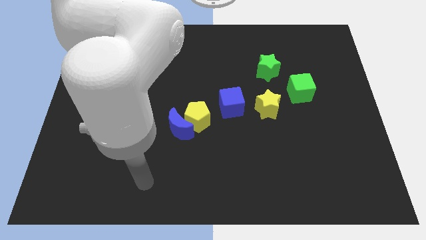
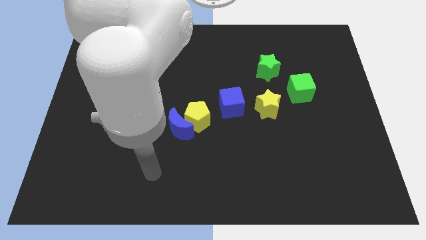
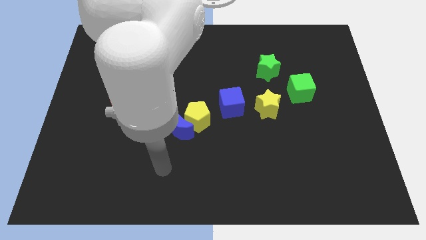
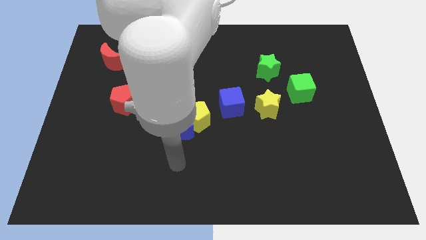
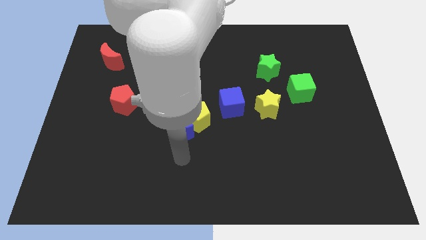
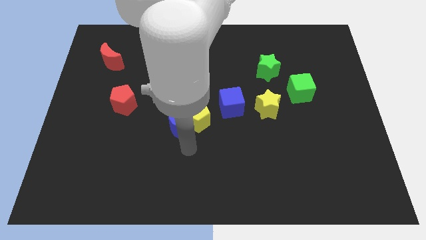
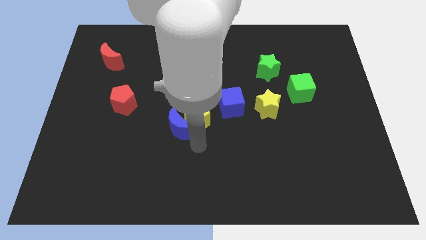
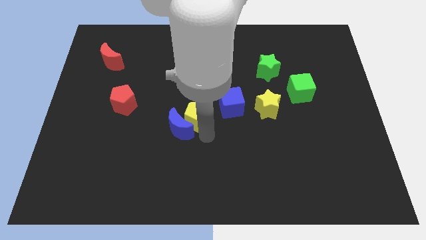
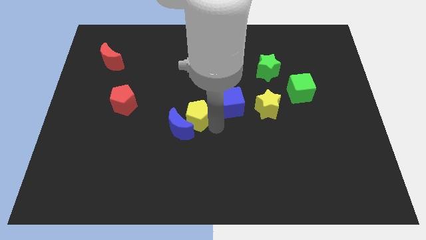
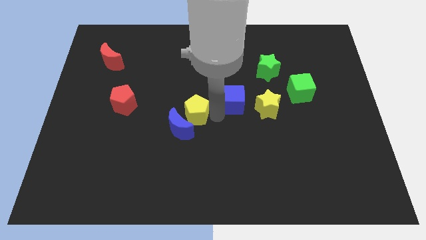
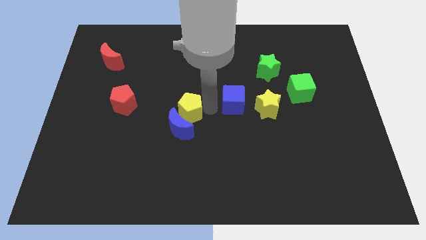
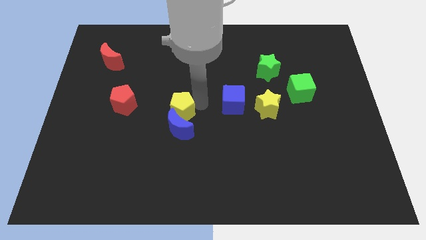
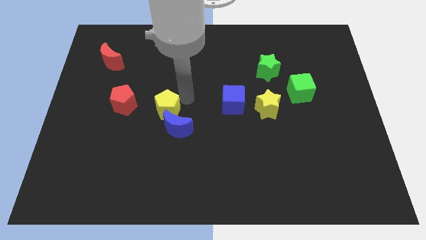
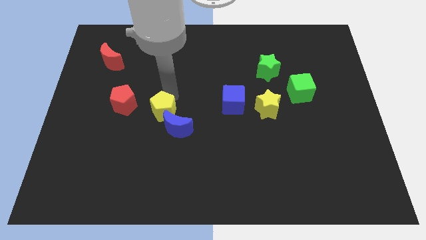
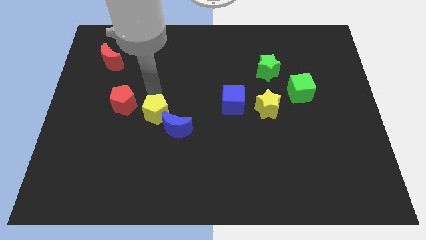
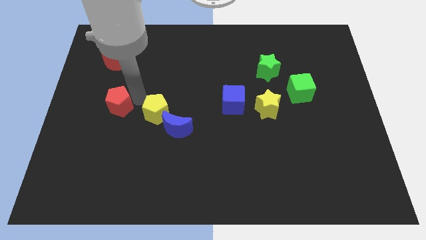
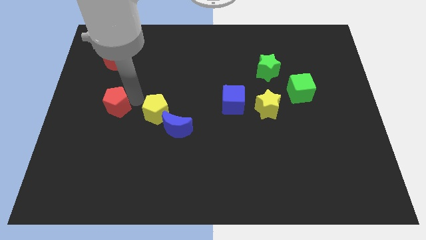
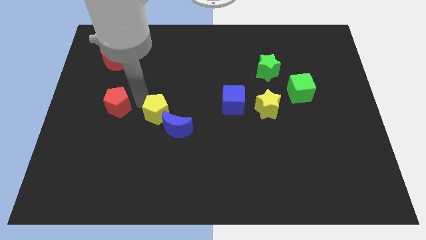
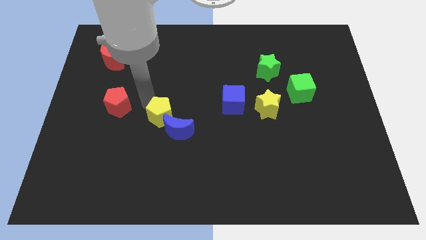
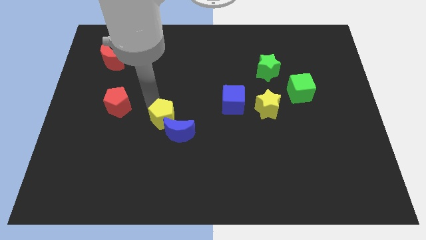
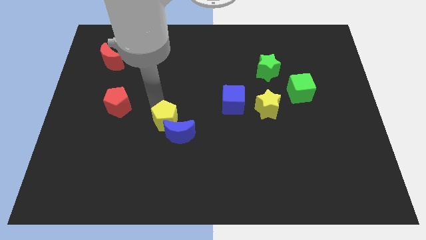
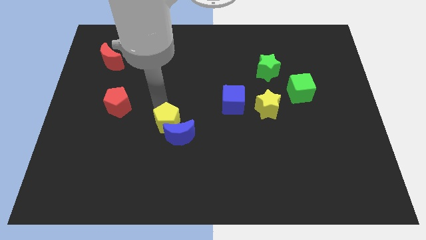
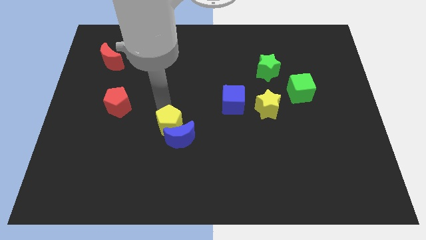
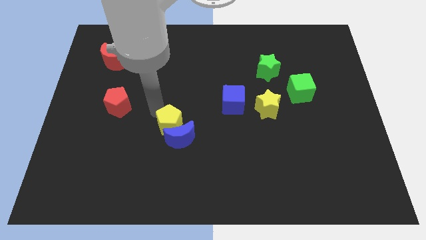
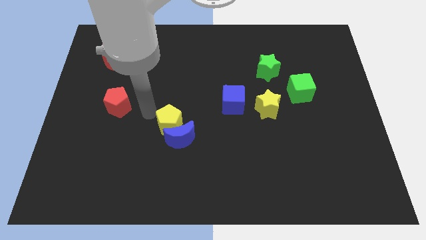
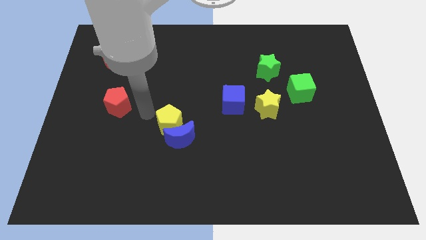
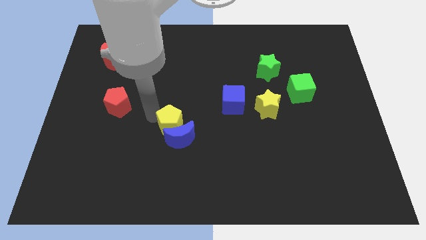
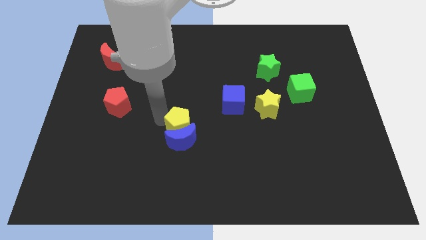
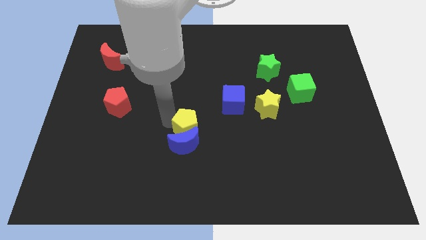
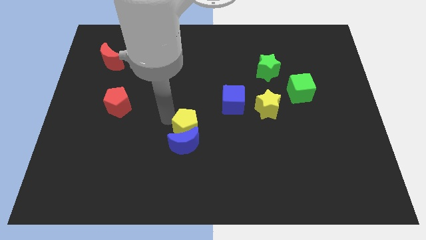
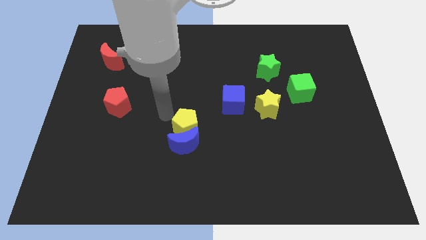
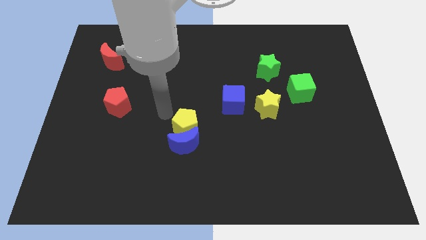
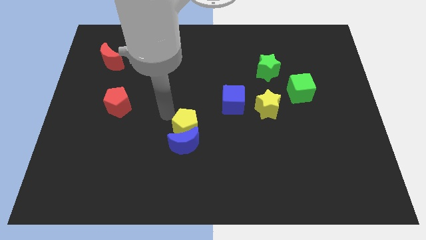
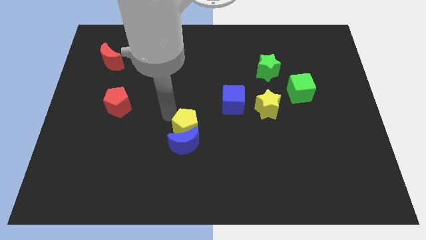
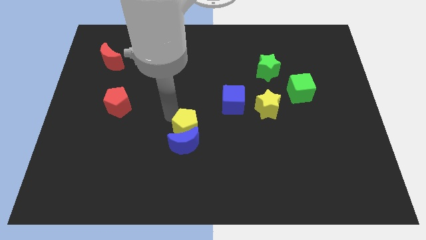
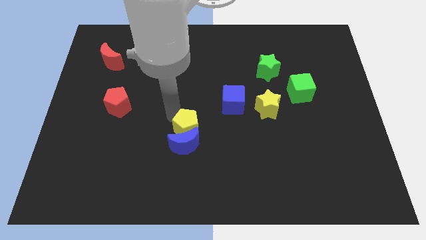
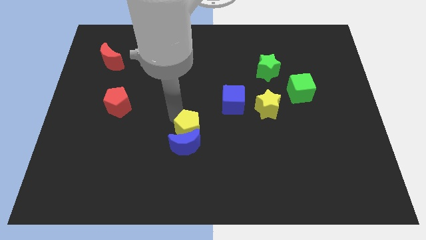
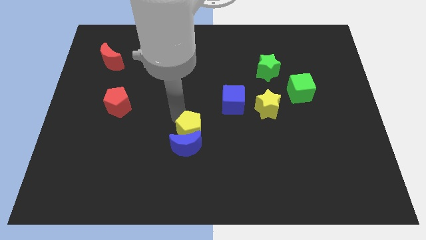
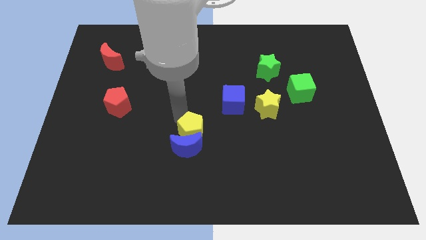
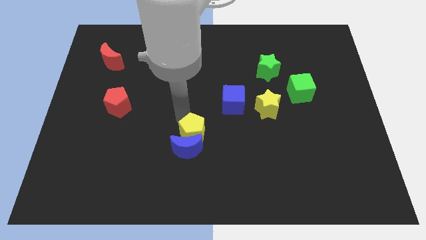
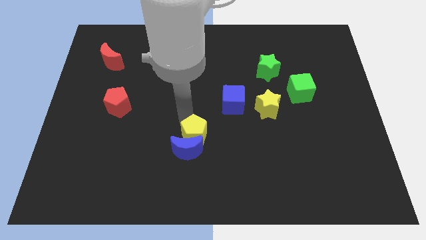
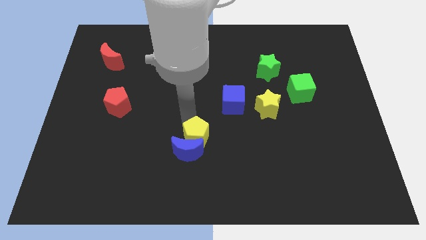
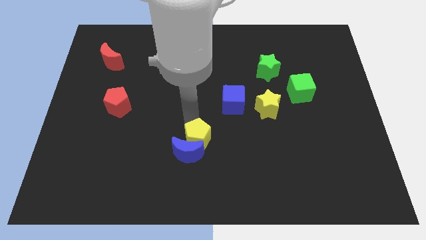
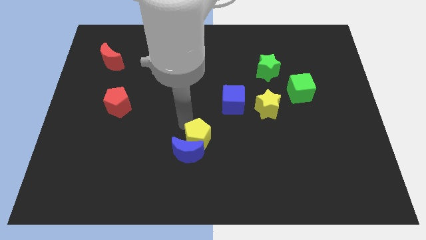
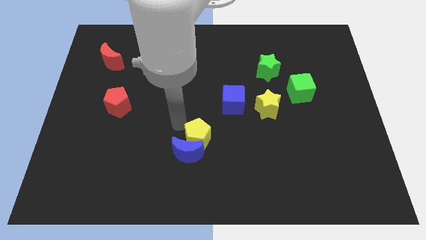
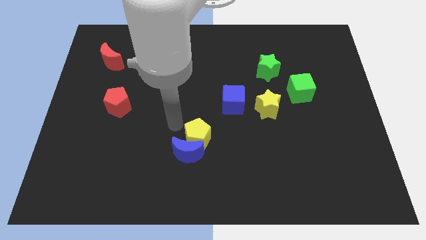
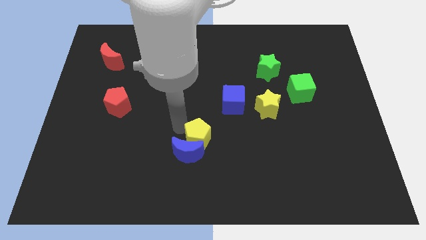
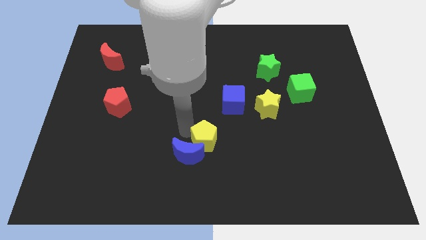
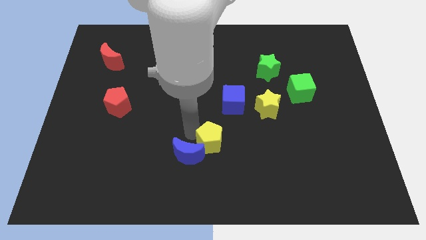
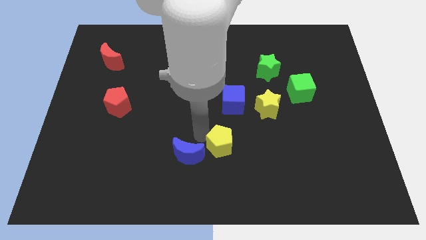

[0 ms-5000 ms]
slide the yellow pentagon downwards and to the right somewhat

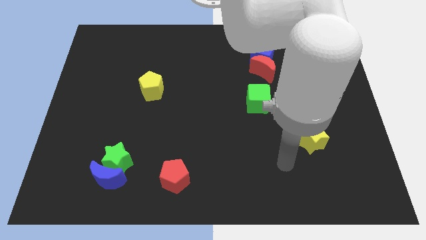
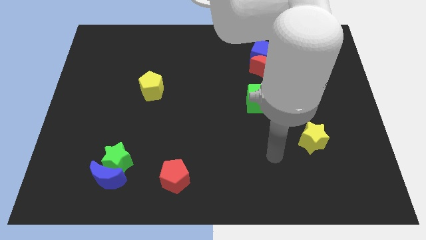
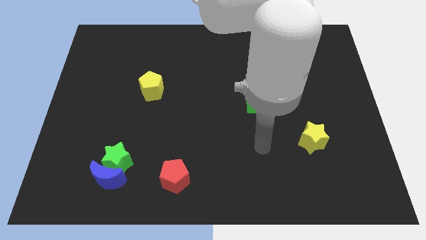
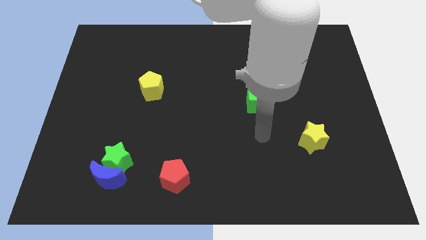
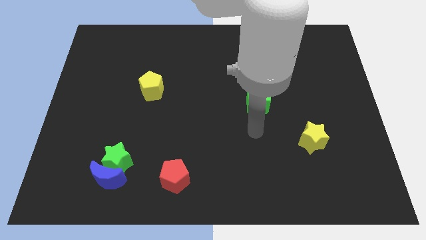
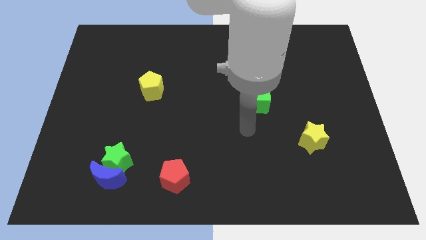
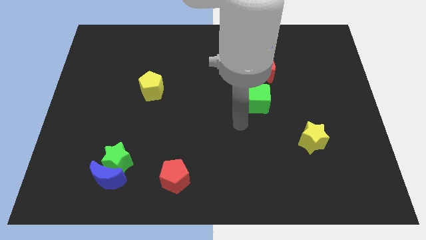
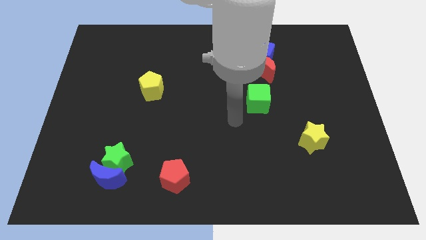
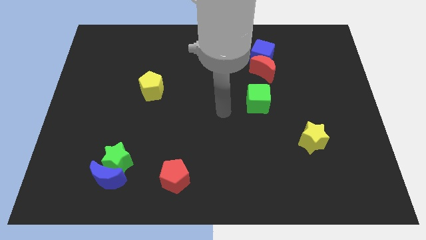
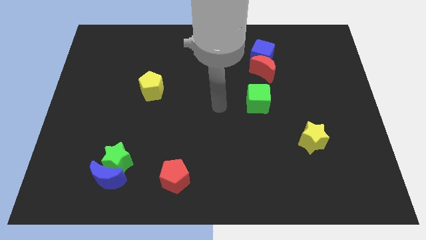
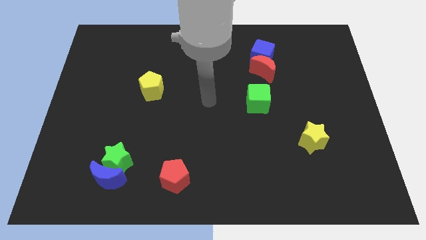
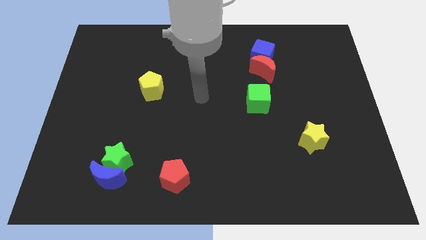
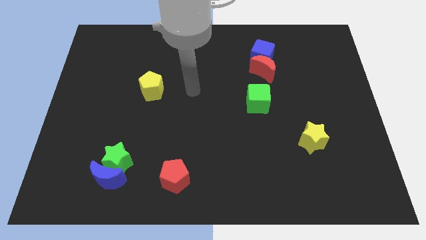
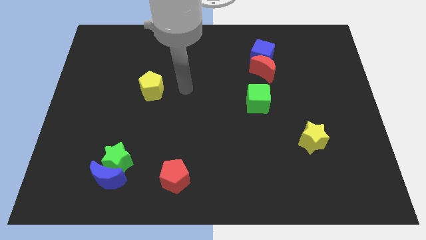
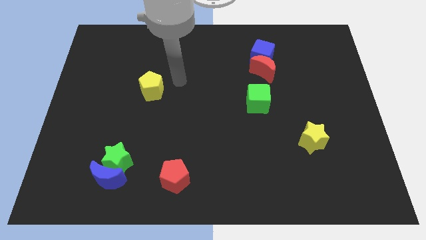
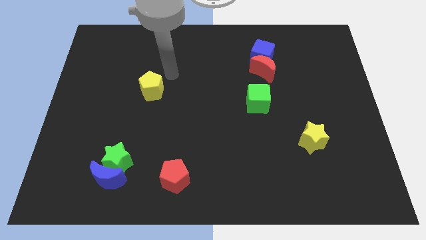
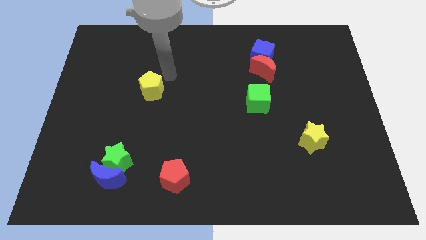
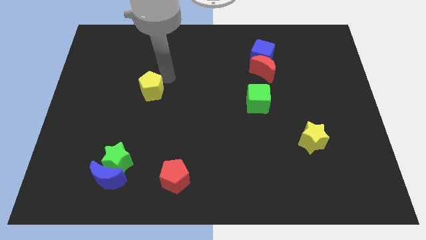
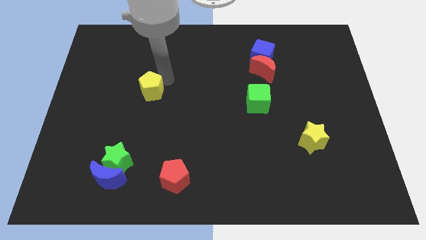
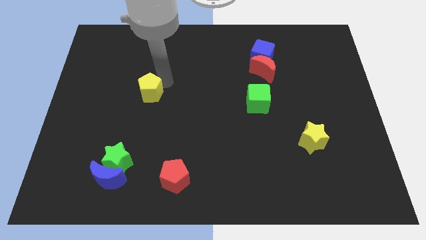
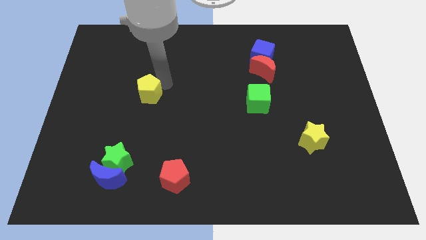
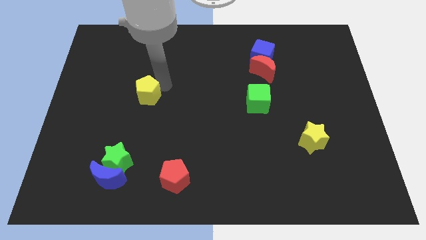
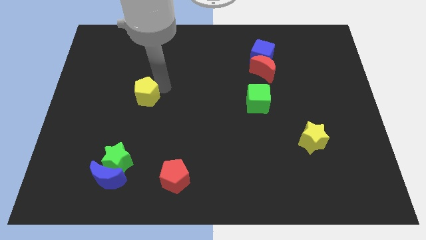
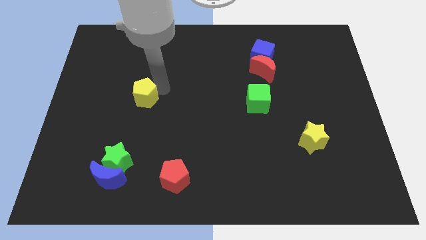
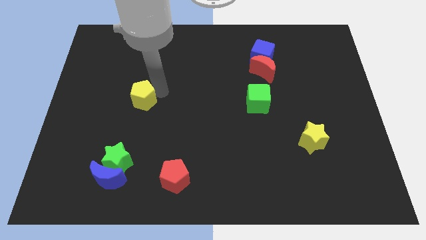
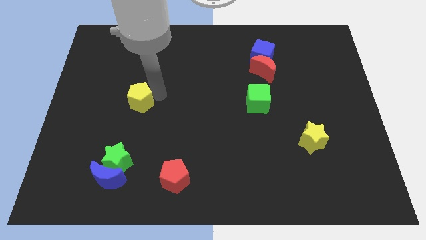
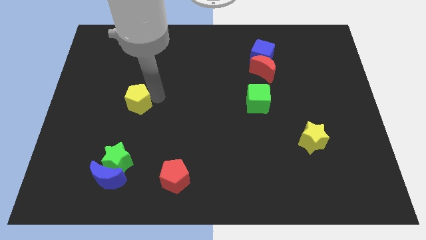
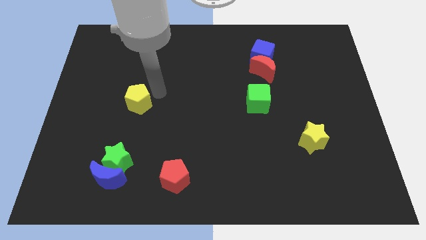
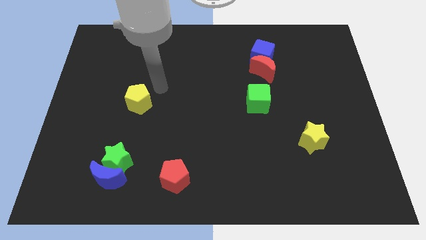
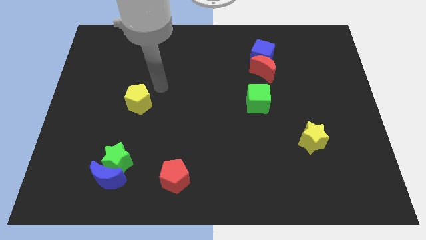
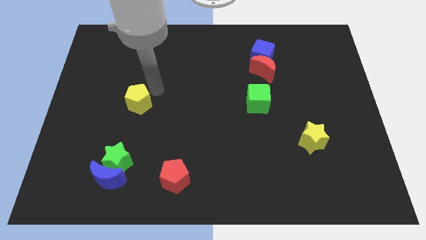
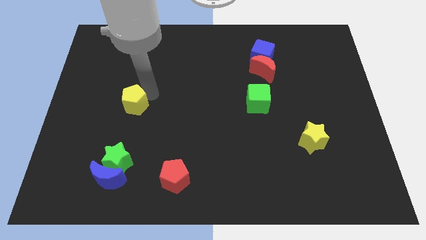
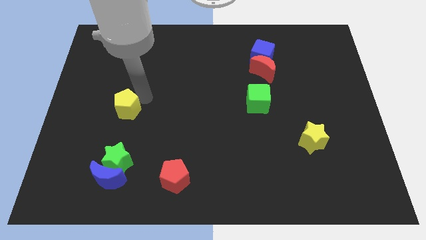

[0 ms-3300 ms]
slide the yellow pentagon downwards and left a little bit

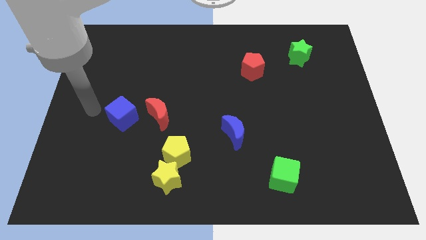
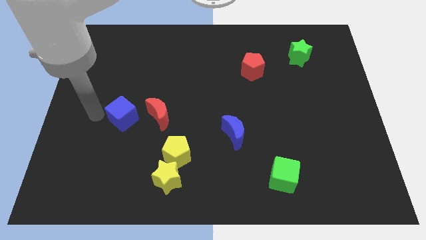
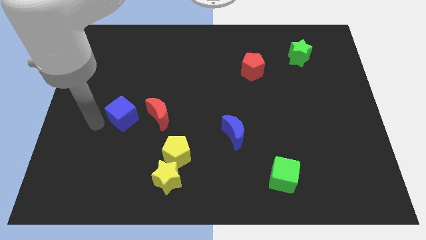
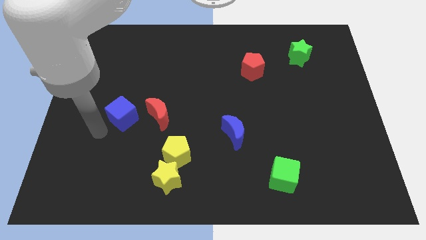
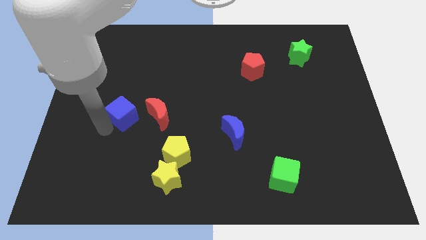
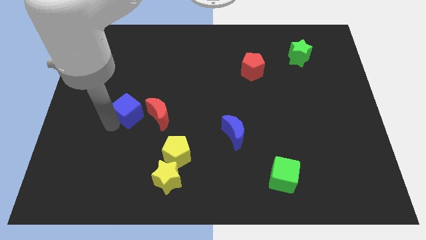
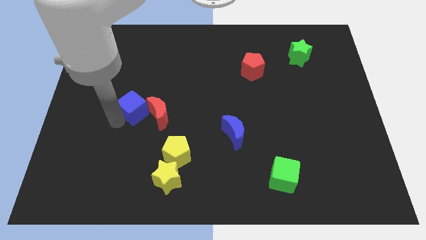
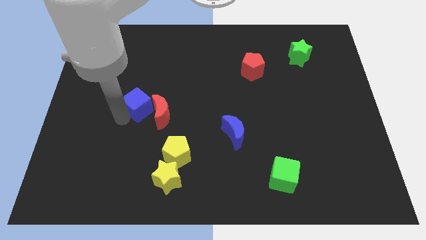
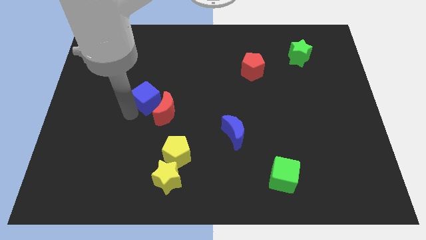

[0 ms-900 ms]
slide the blue cube upwards and to the right diagonally slightly
